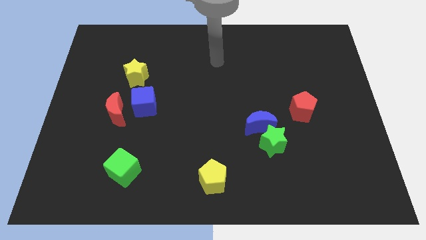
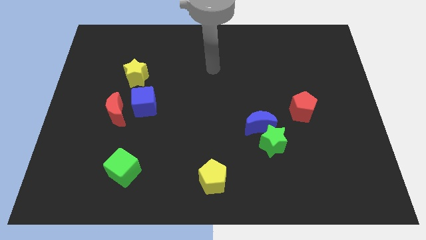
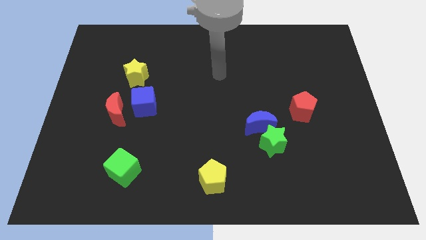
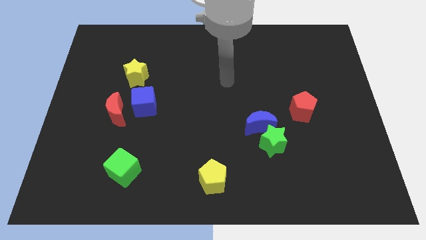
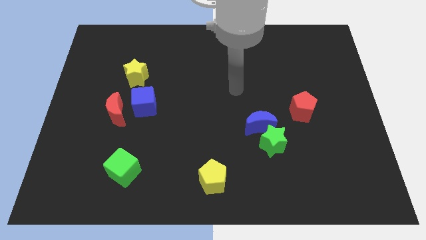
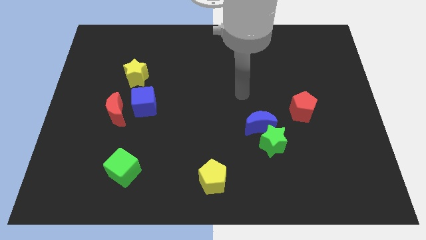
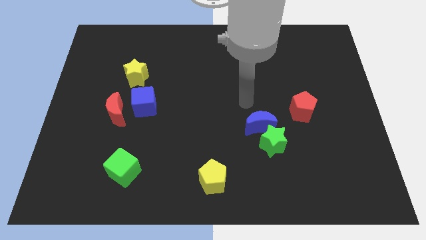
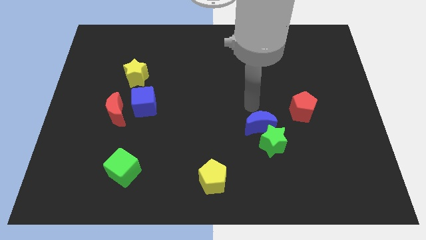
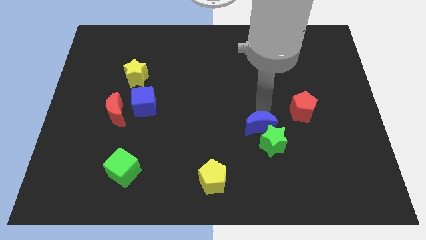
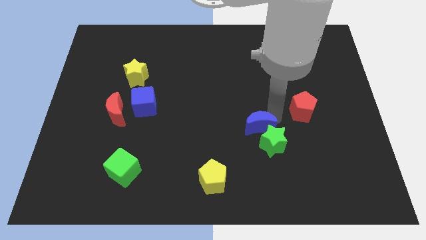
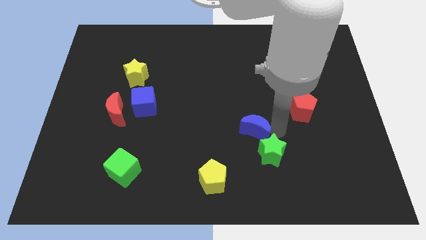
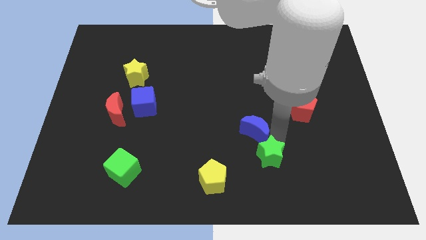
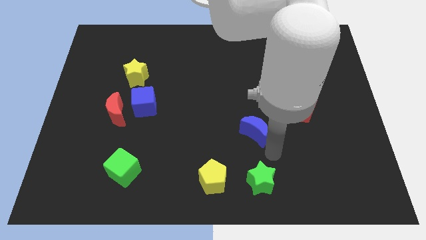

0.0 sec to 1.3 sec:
move the blue moon away from the green star

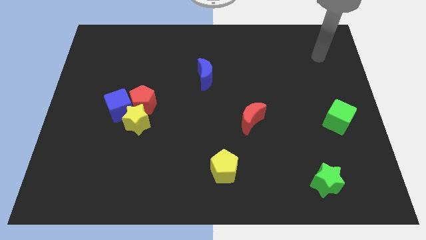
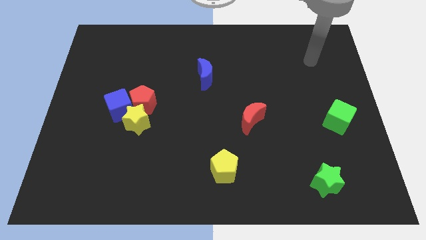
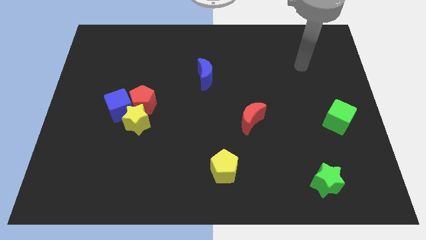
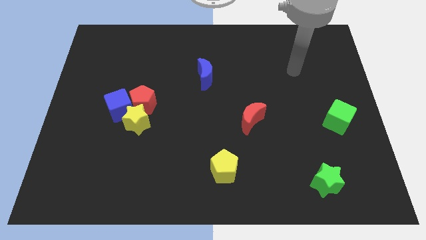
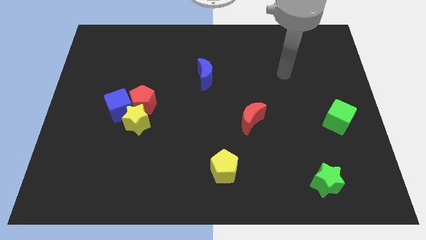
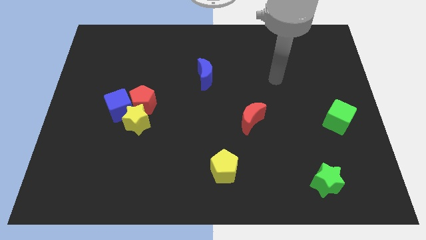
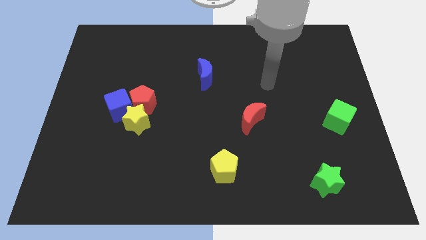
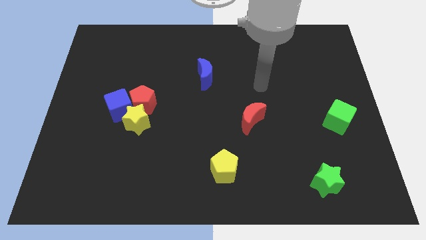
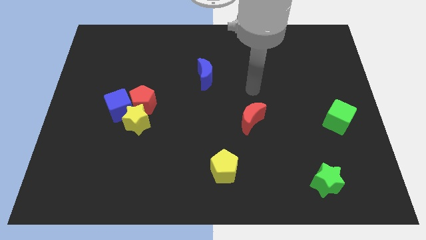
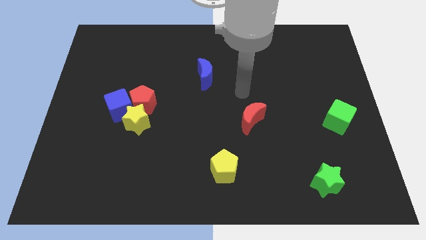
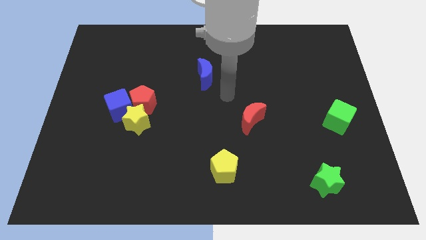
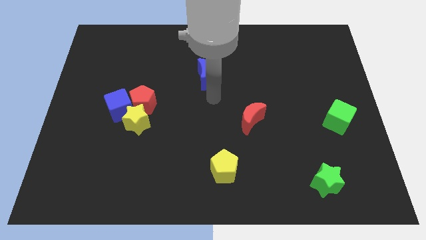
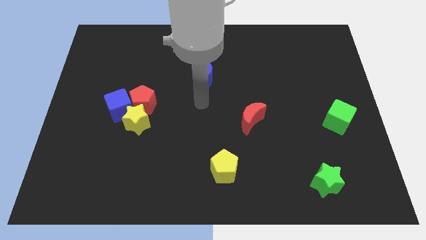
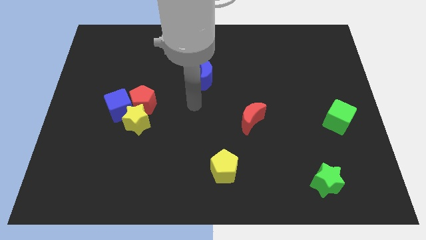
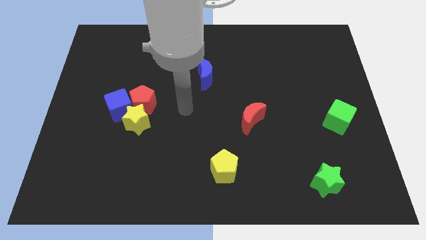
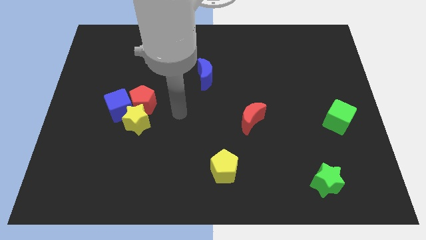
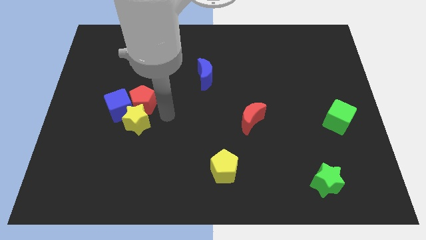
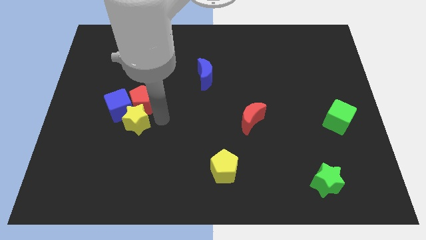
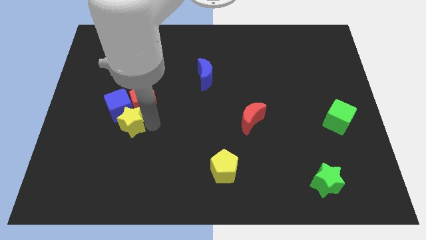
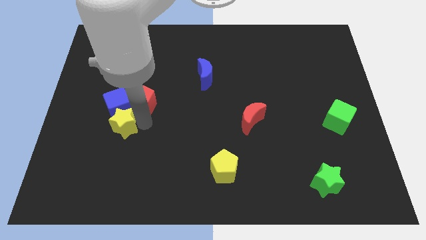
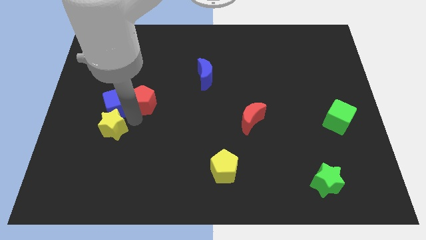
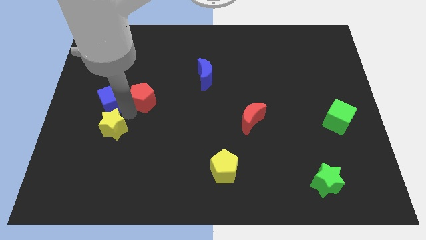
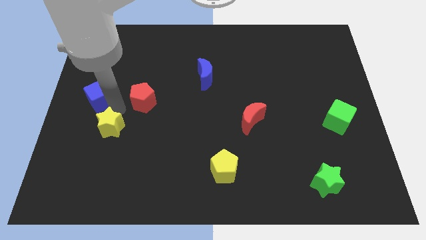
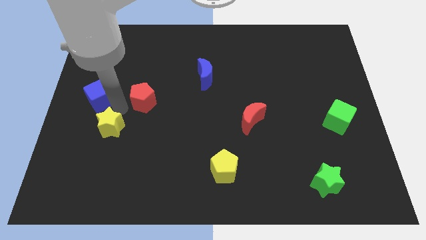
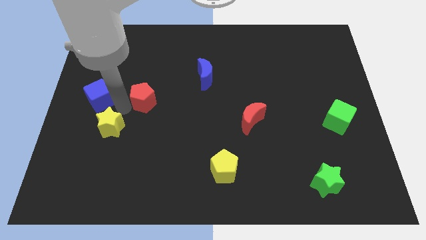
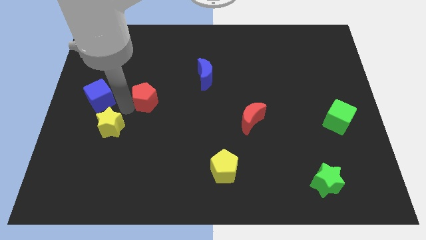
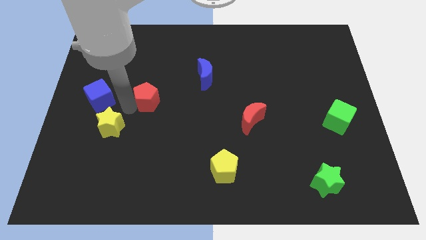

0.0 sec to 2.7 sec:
pull the red pentagon apart from the yellow star and blue cube

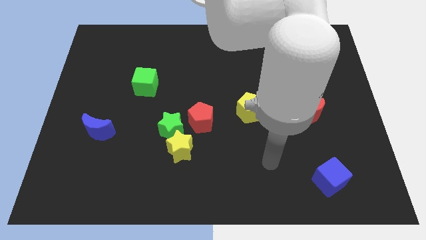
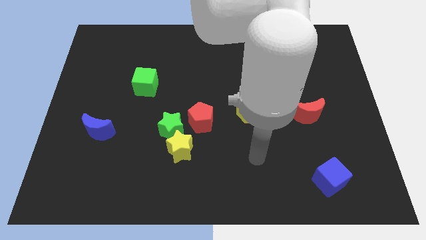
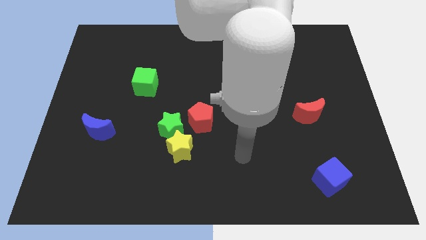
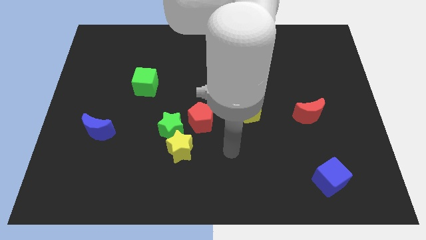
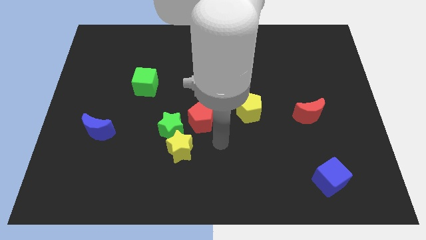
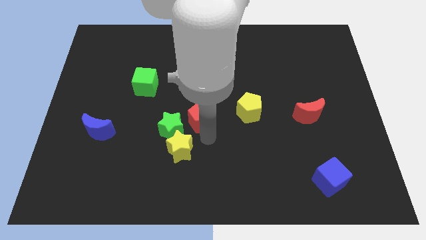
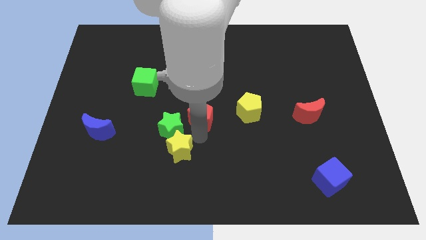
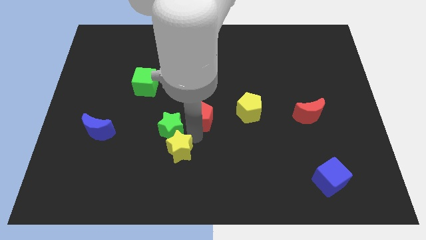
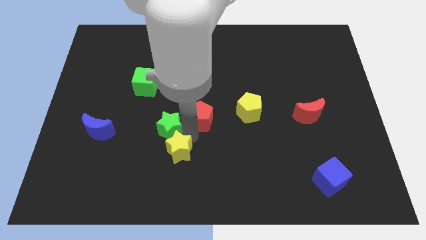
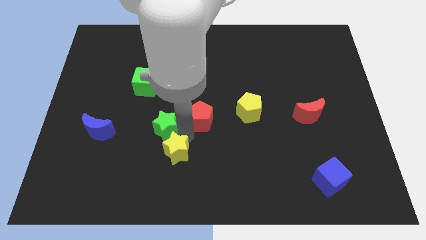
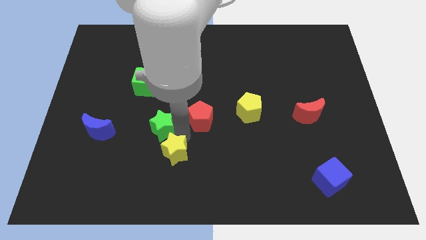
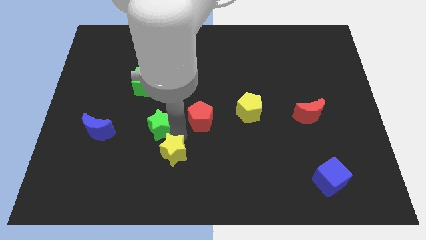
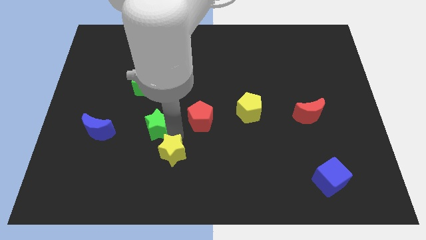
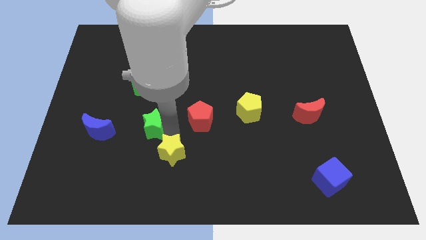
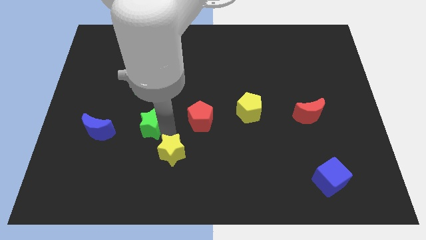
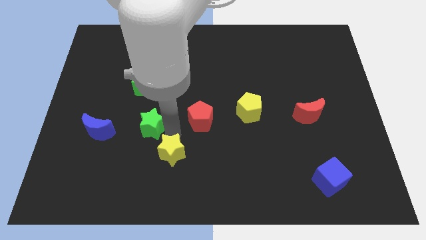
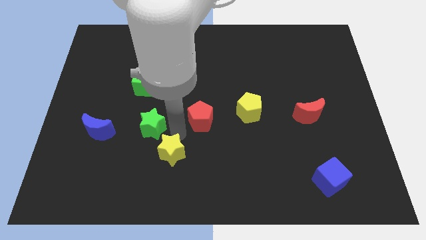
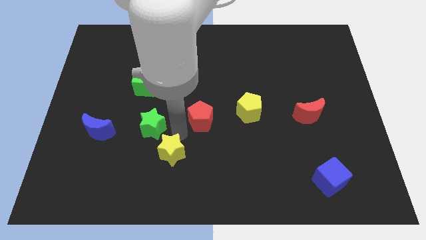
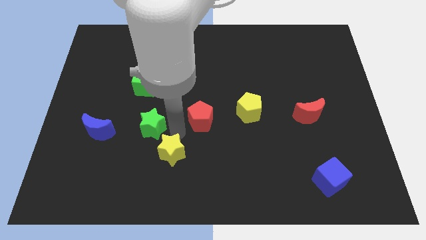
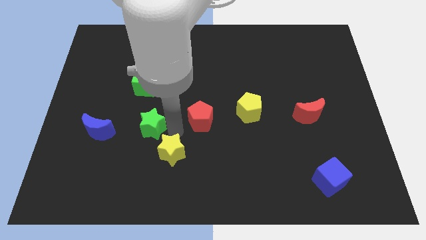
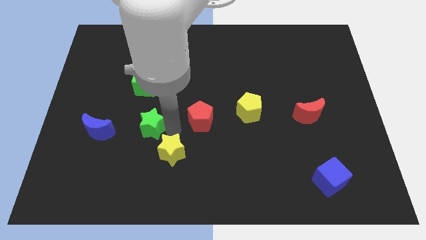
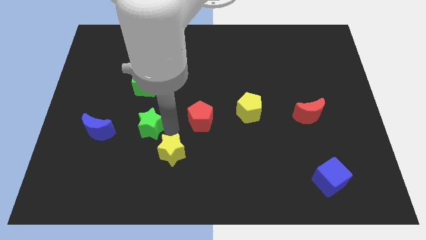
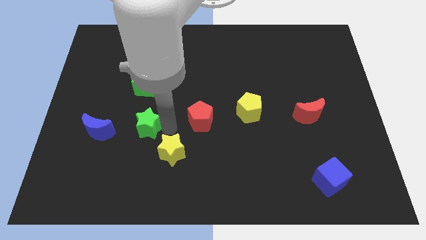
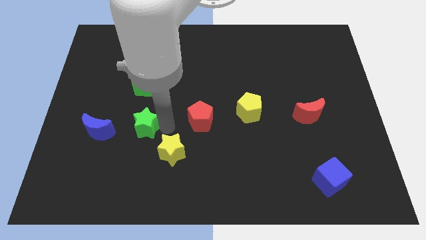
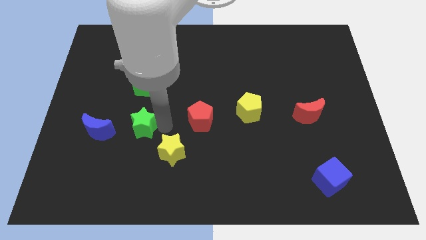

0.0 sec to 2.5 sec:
pull the green star apart from the yellow star and red pentagon

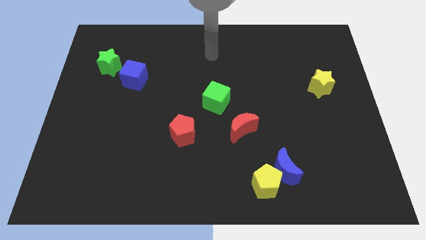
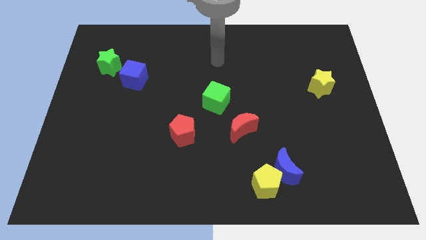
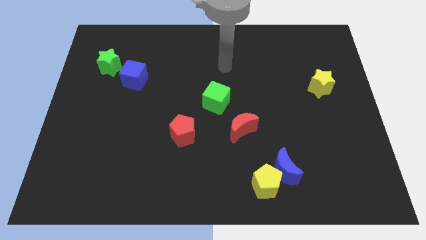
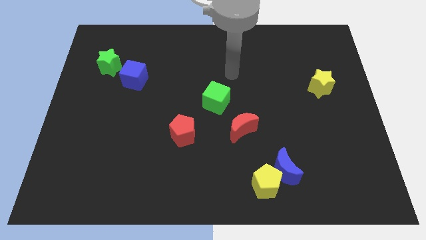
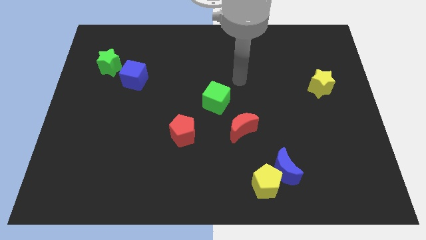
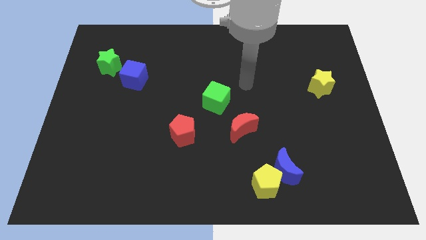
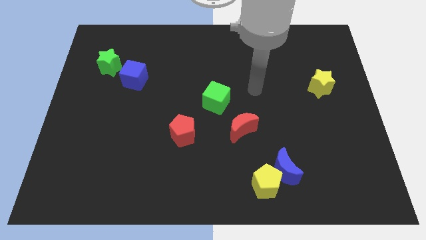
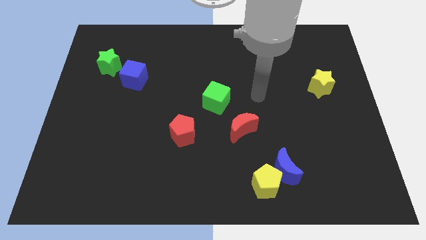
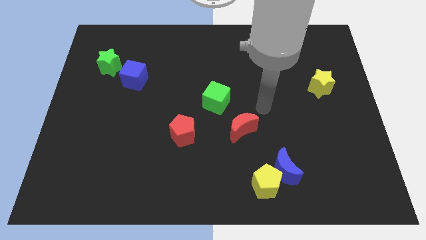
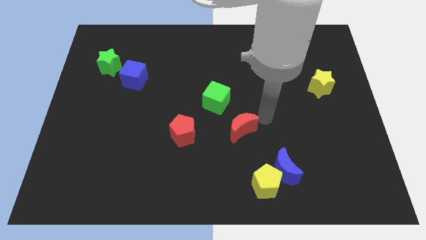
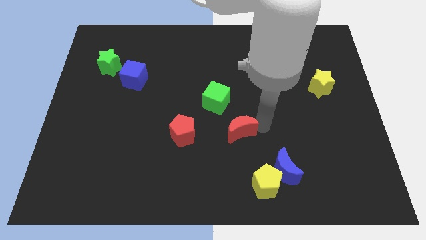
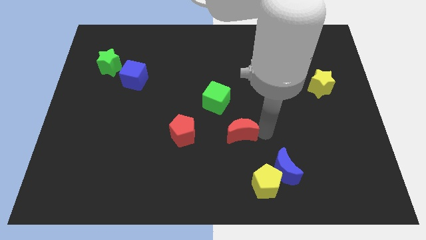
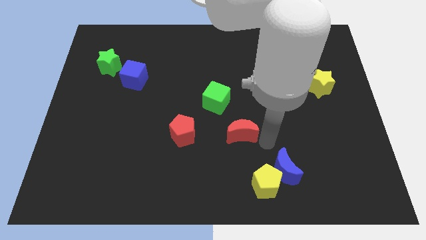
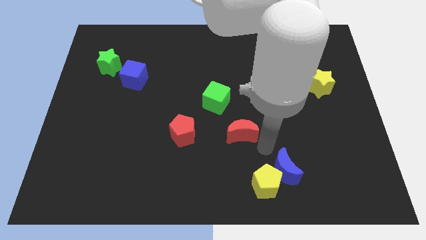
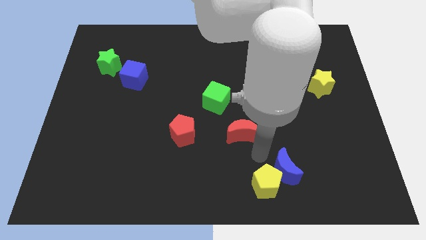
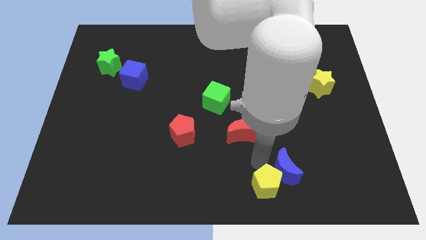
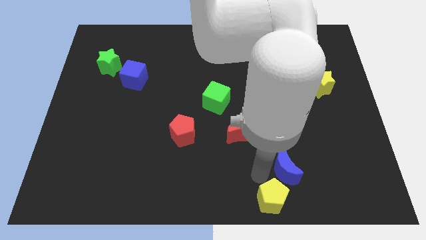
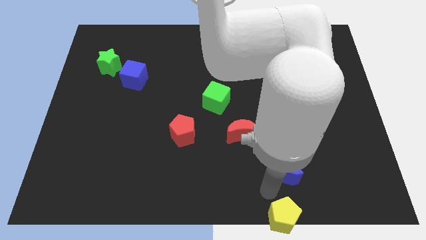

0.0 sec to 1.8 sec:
move the blue moon away from the yellow pentagon

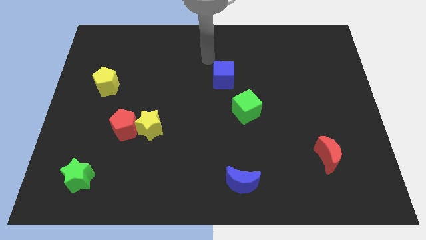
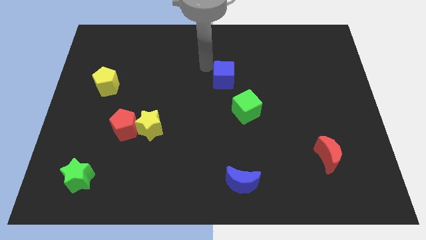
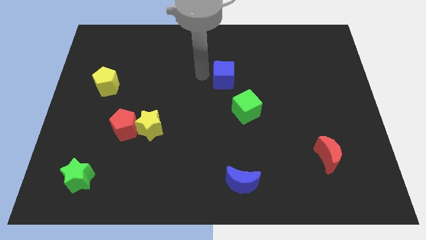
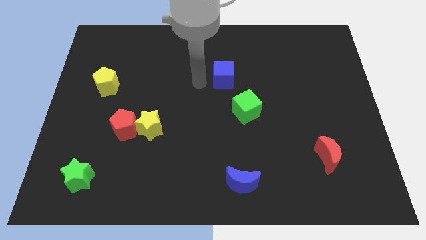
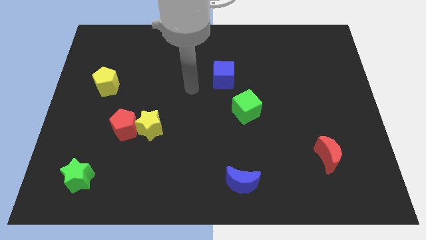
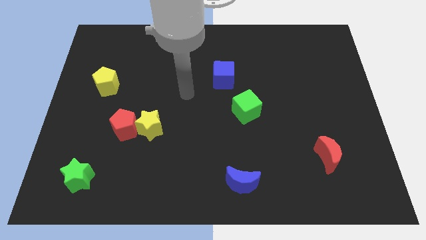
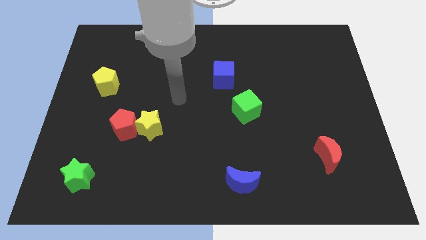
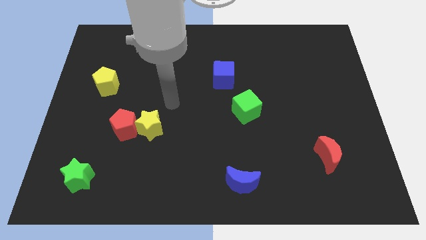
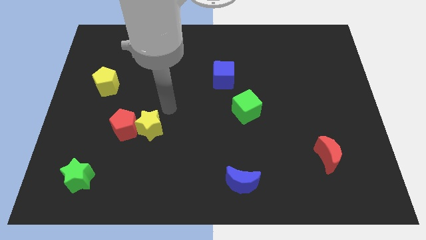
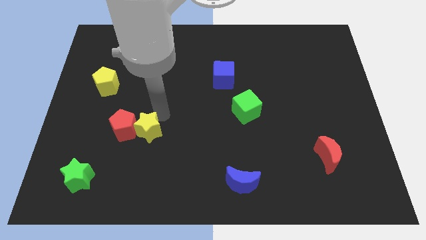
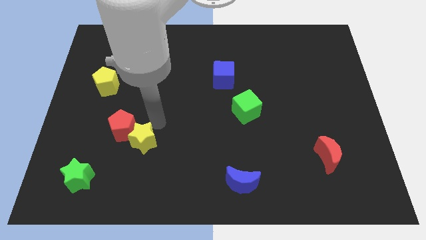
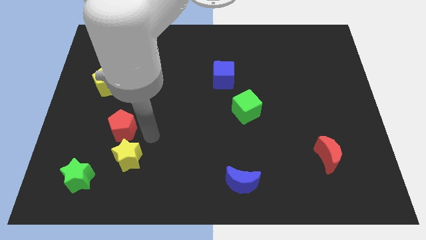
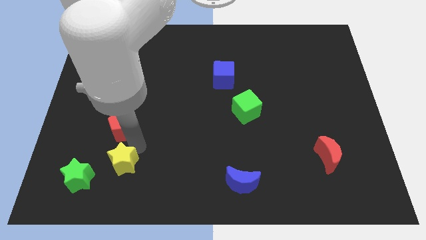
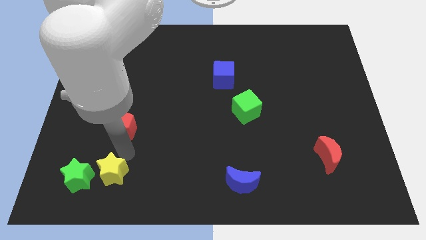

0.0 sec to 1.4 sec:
move the red pentagon away from the yellow star
